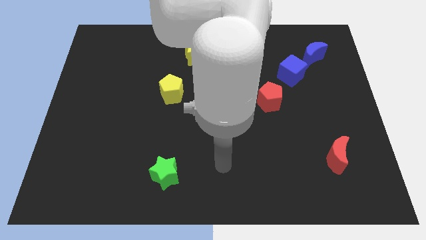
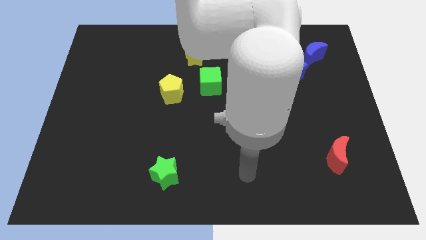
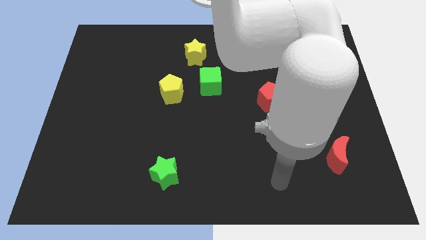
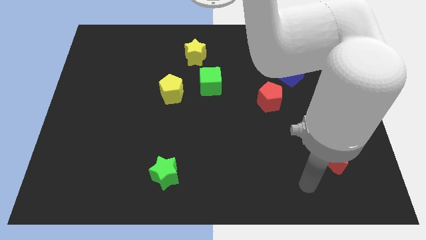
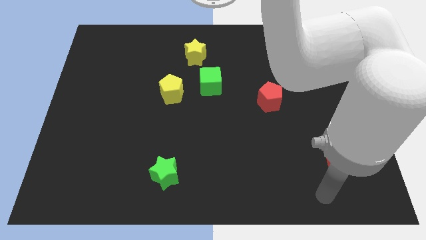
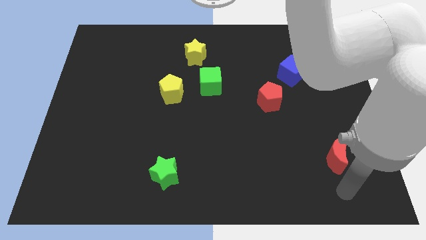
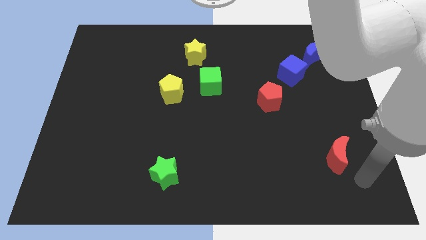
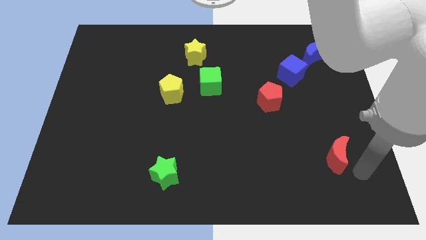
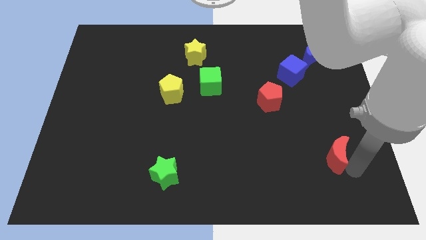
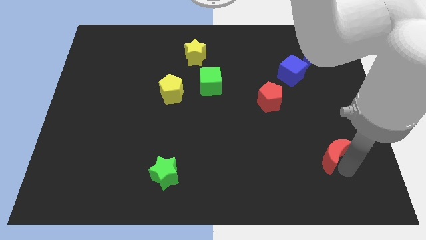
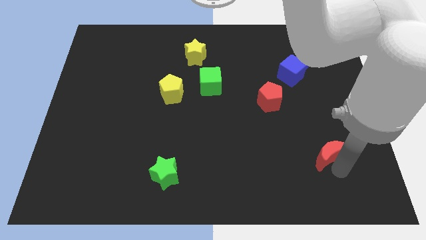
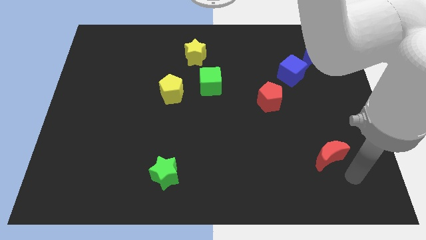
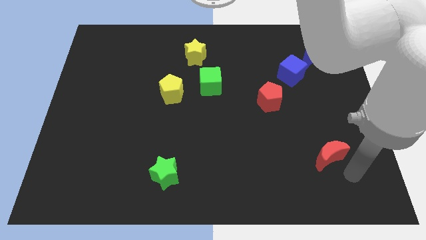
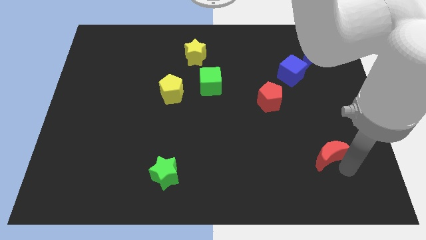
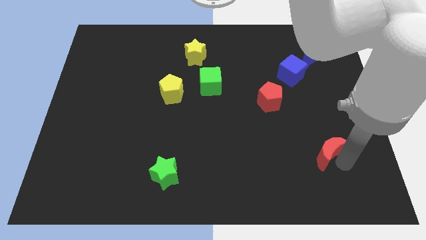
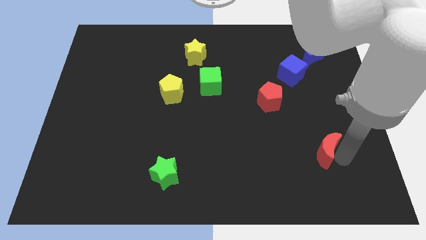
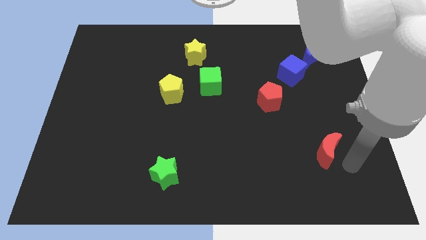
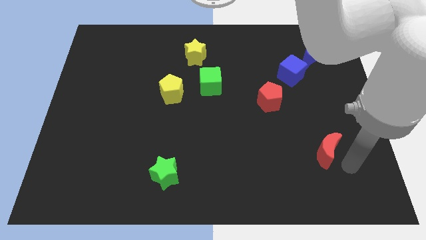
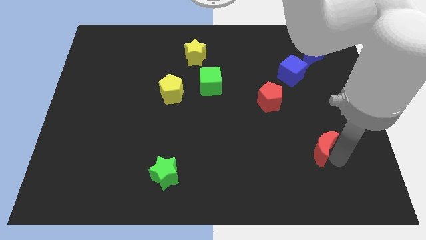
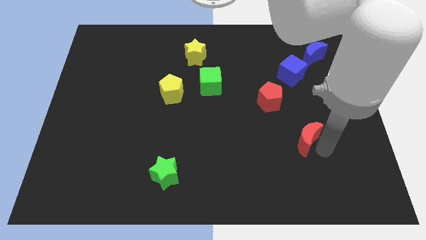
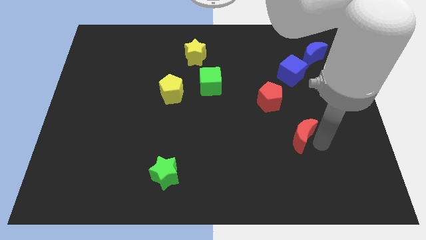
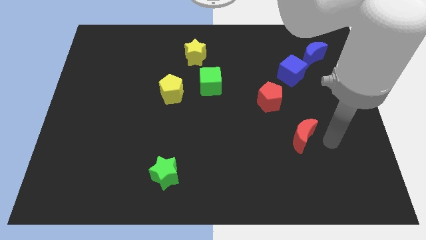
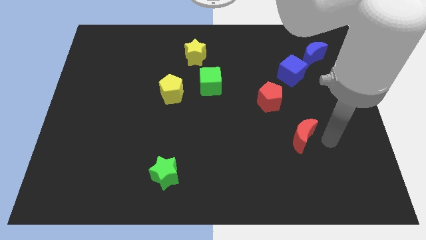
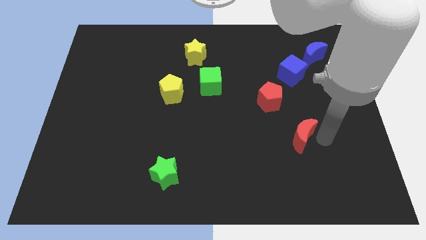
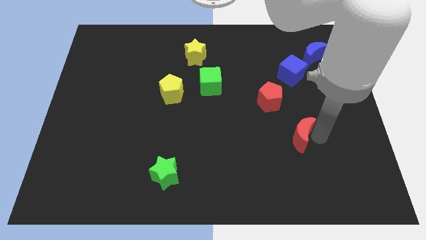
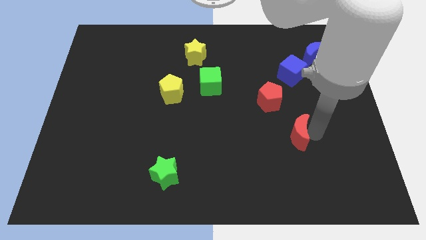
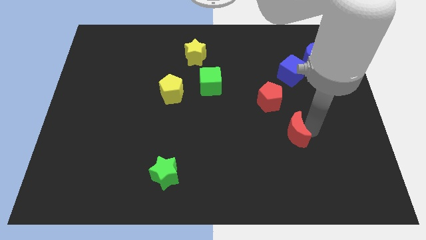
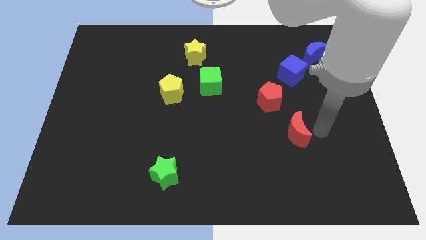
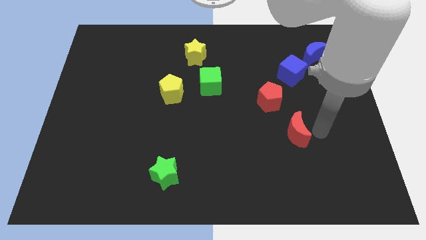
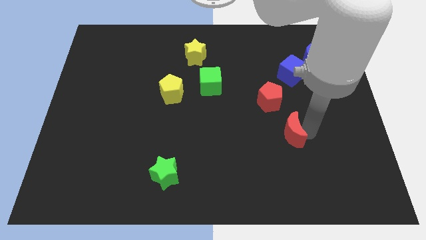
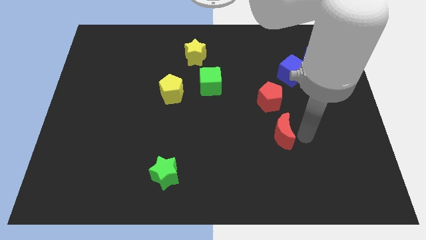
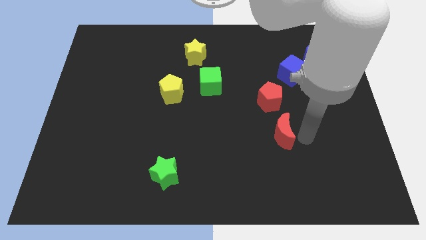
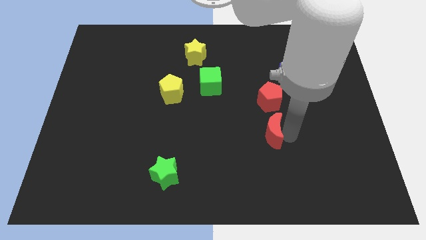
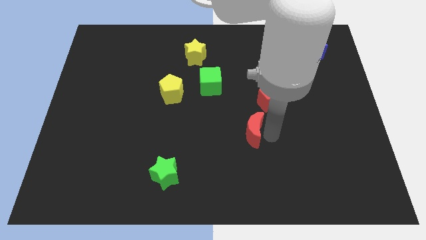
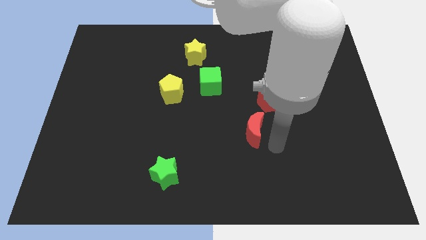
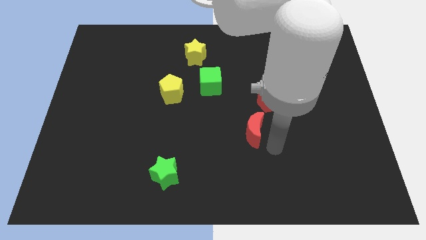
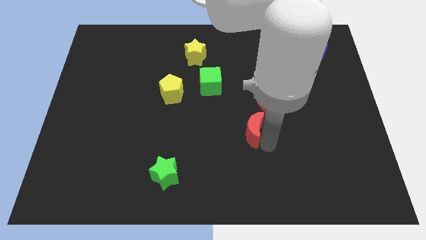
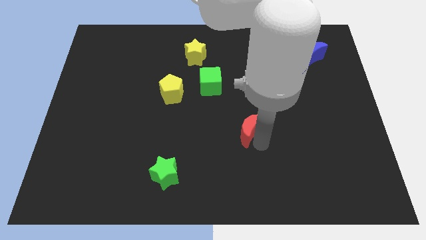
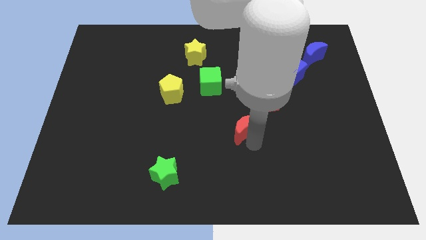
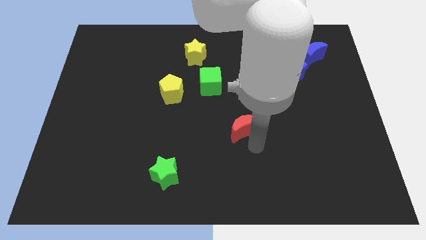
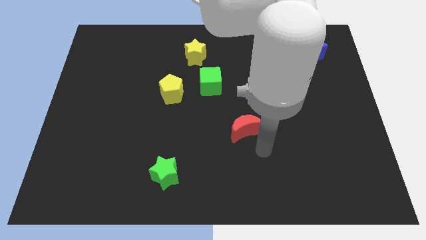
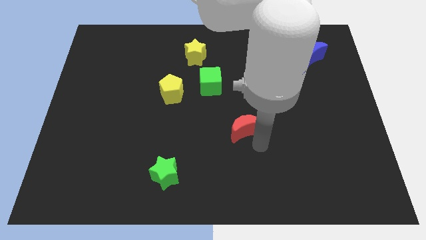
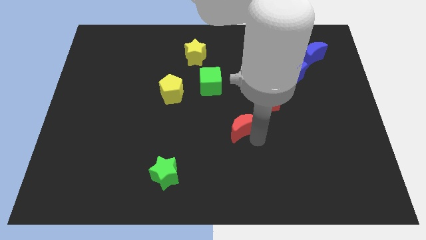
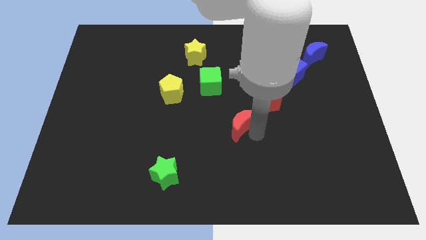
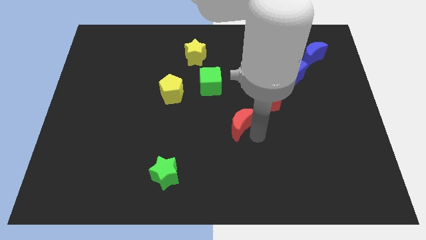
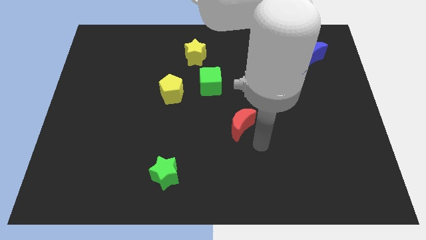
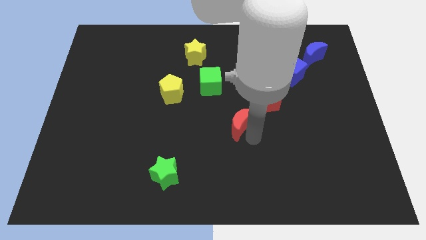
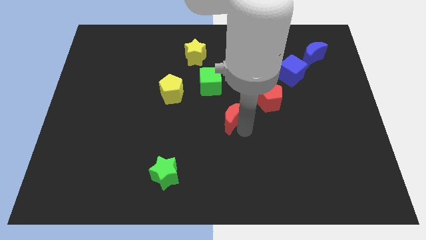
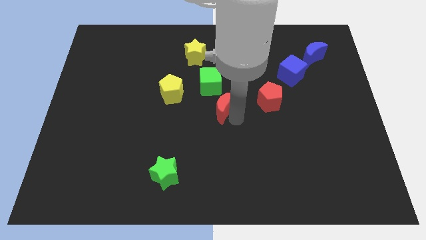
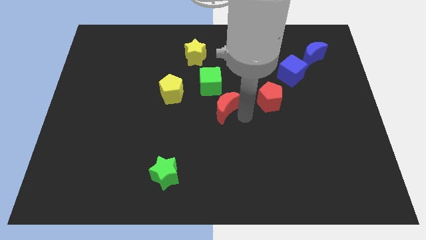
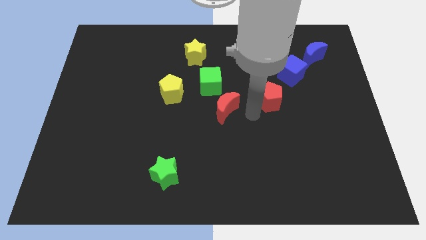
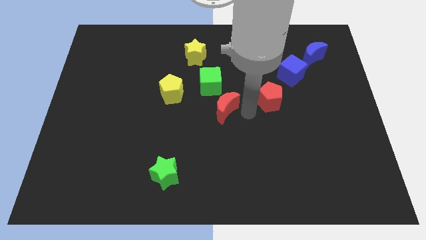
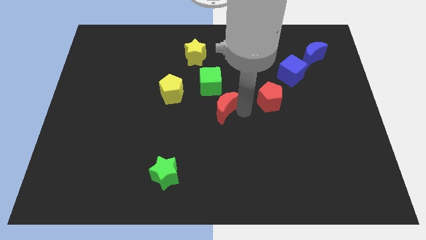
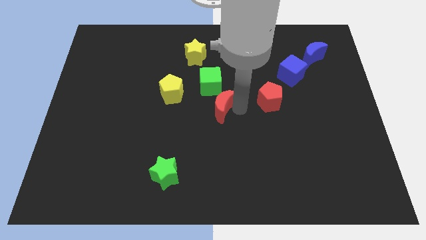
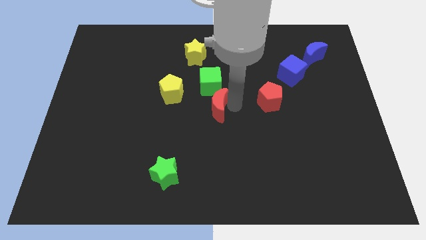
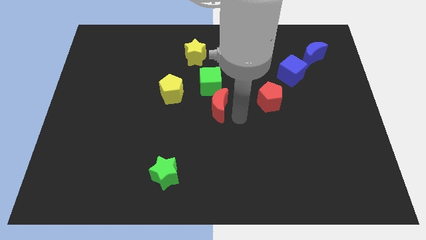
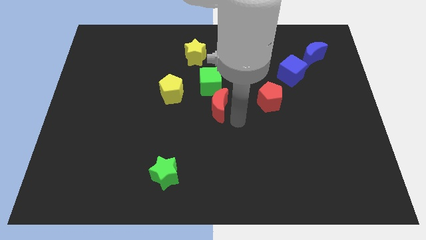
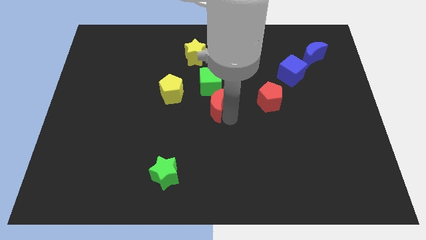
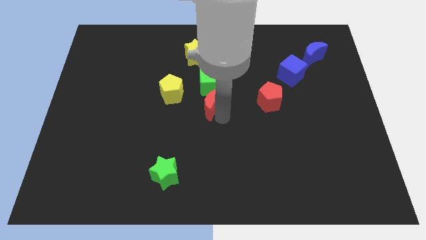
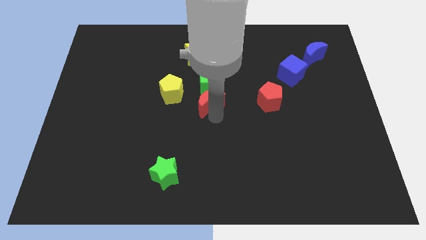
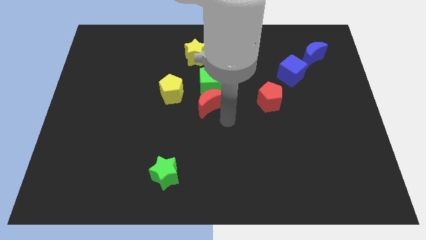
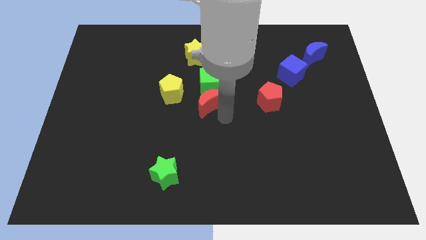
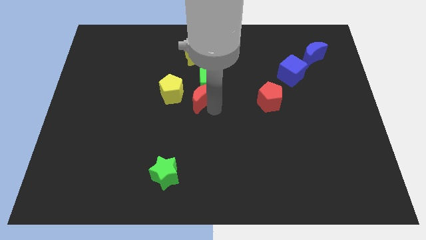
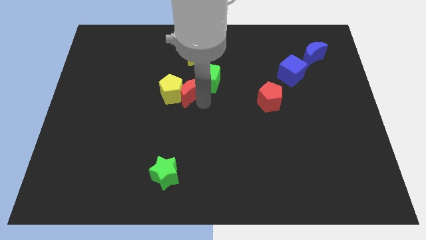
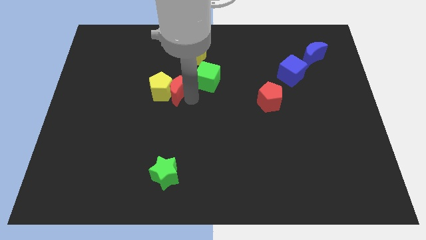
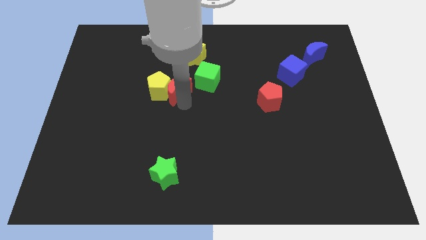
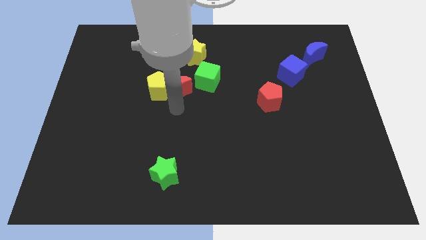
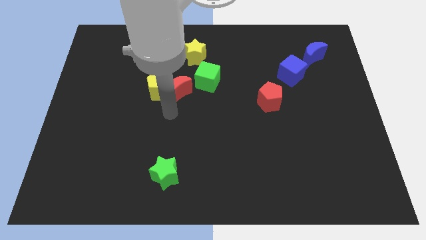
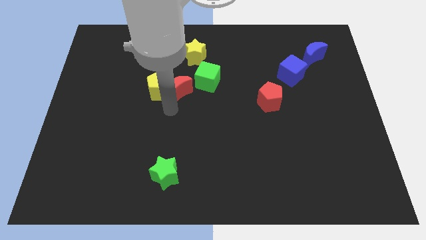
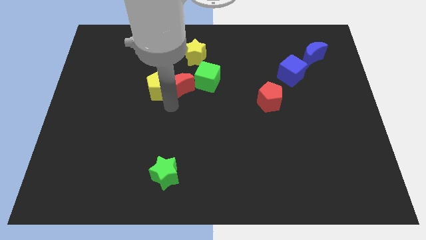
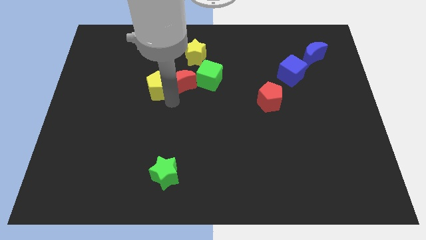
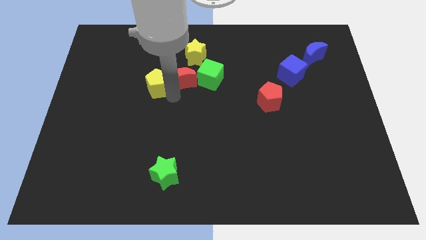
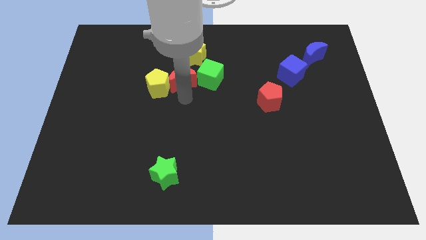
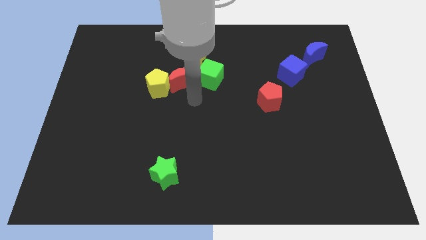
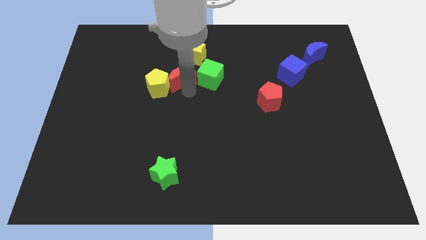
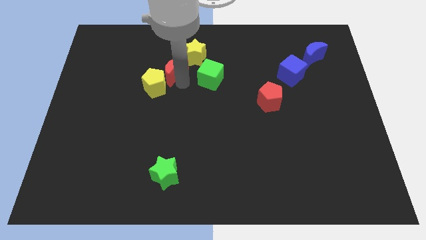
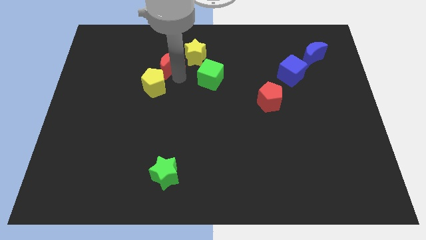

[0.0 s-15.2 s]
slide the red moon just left of the yellow star
